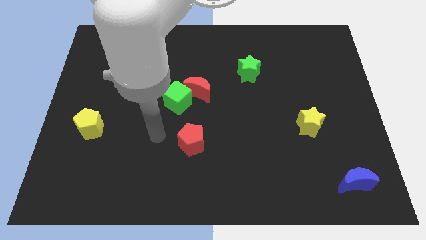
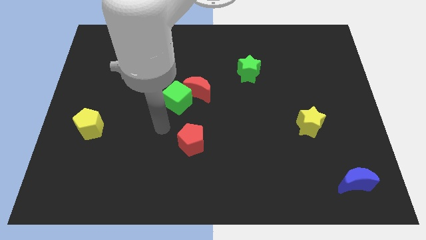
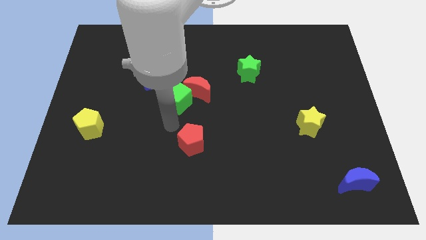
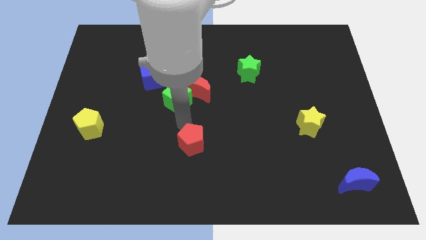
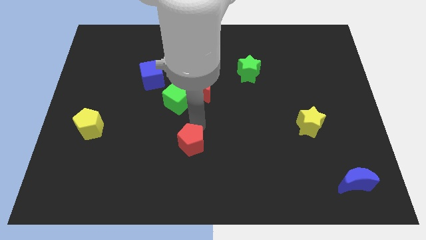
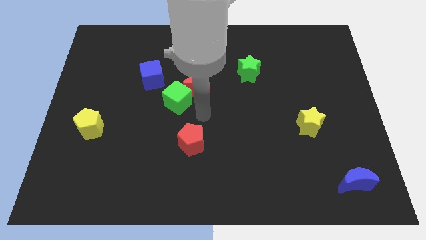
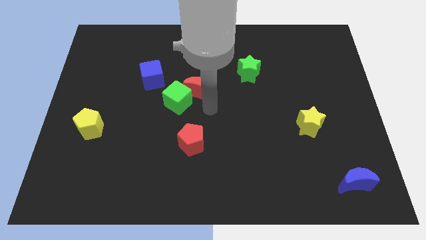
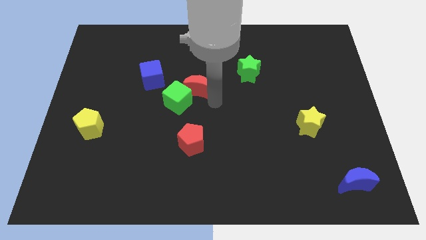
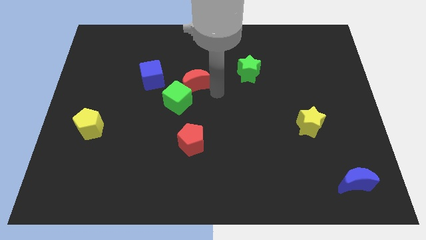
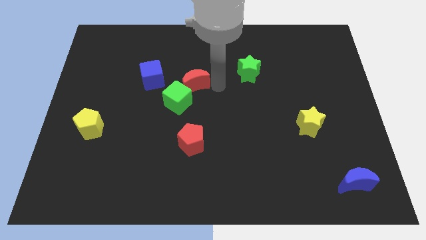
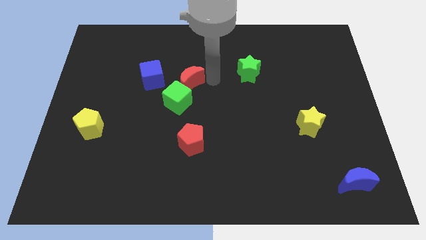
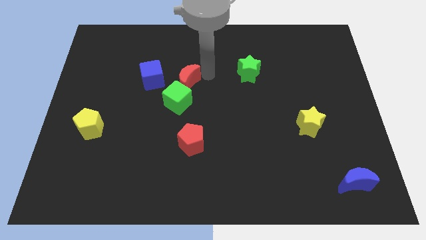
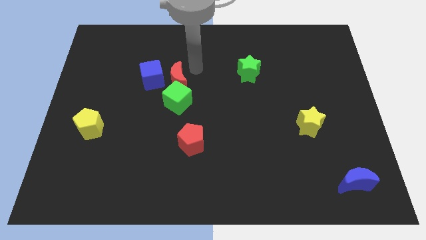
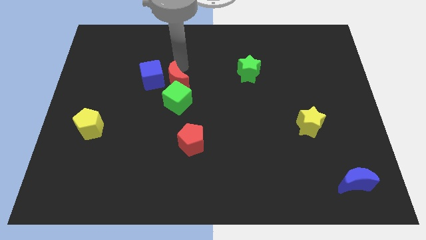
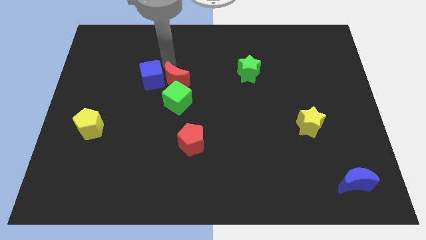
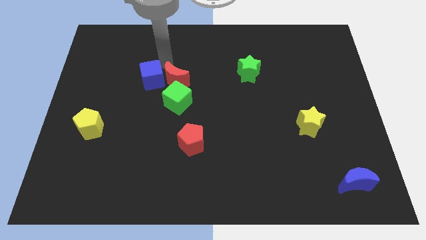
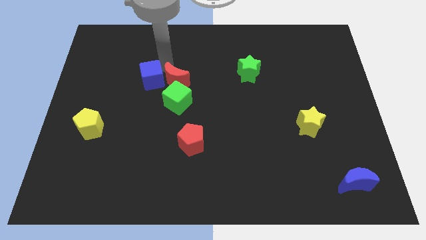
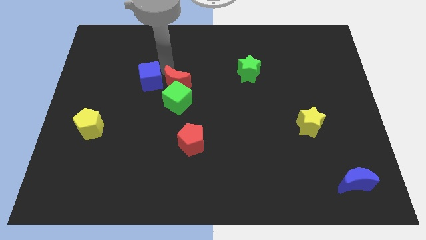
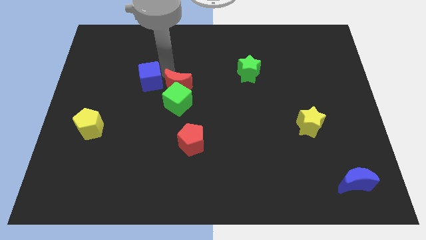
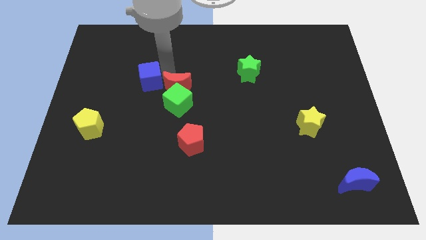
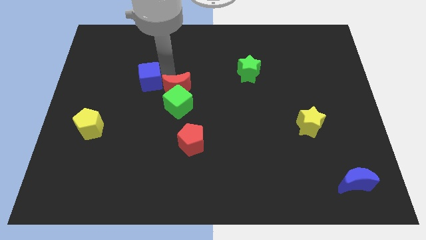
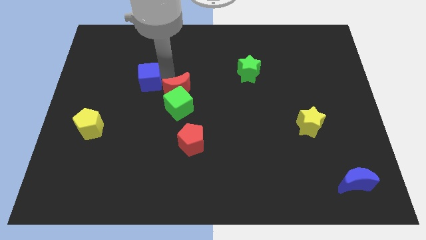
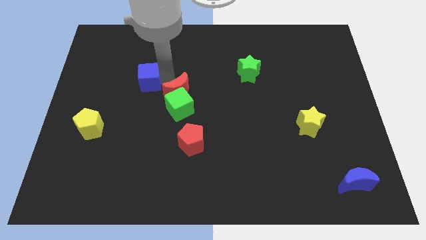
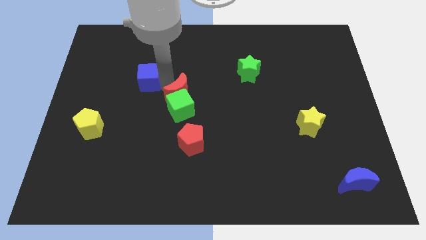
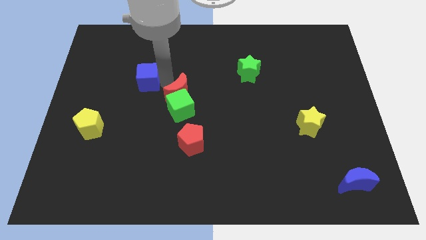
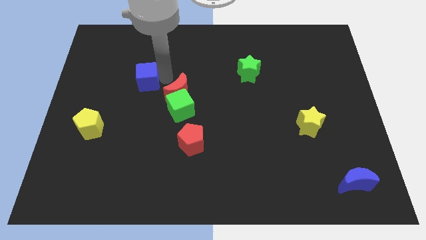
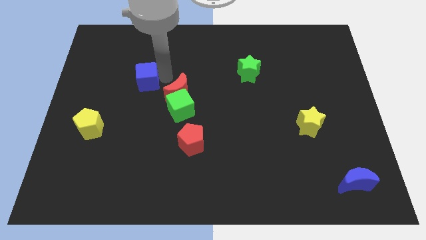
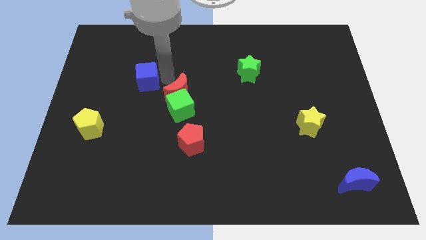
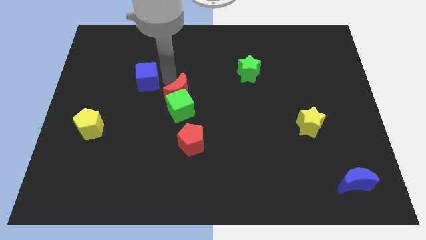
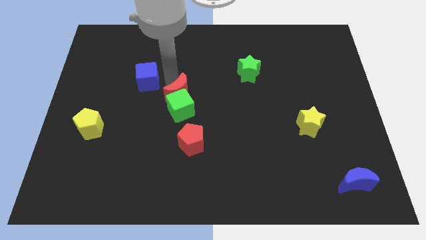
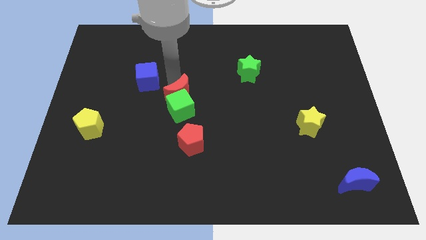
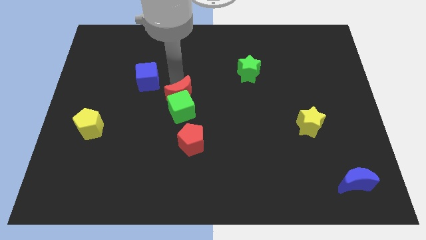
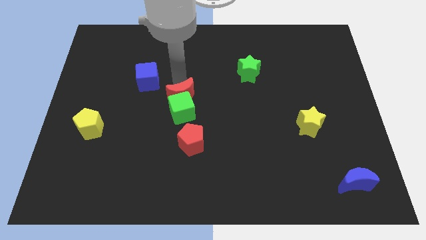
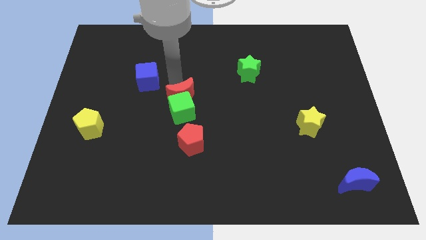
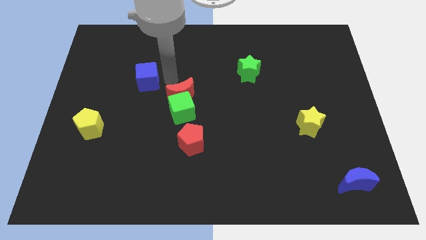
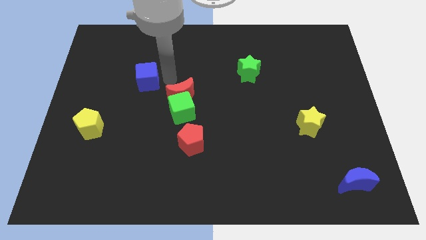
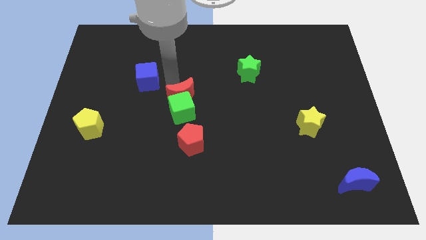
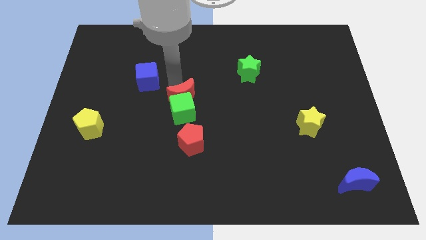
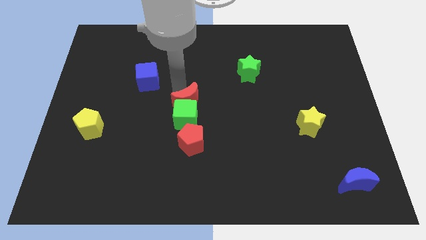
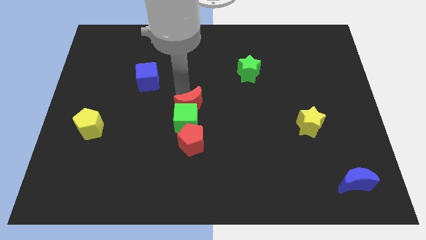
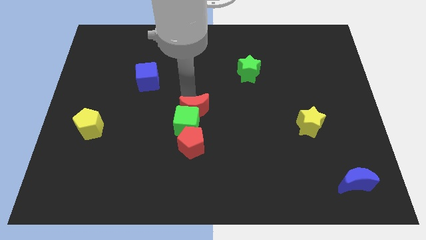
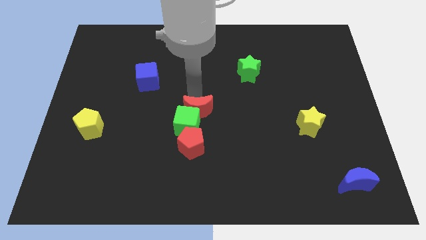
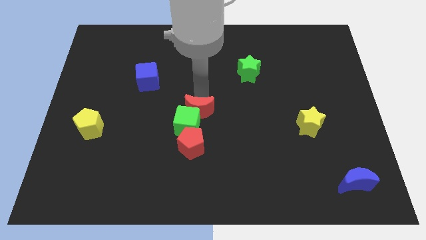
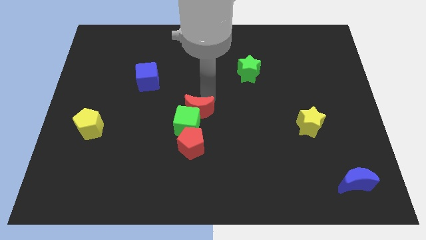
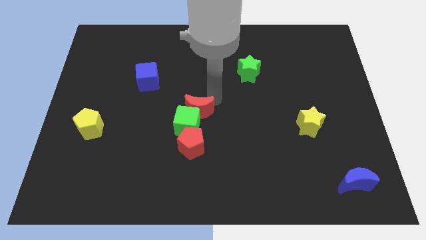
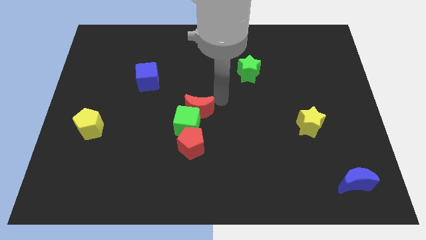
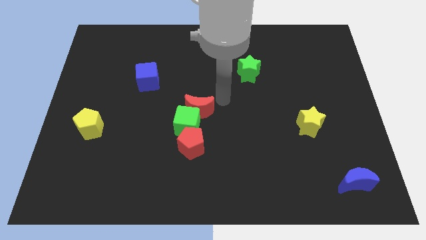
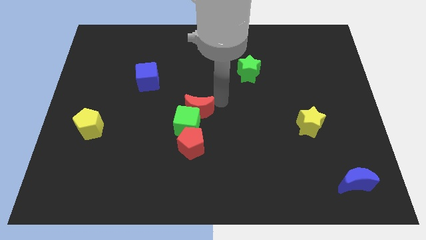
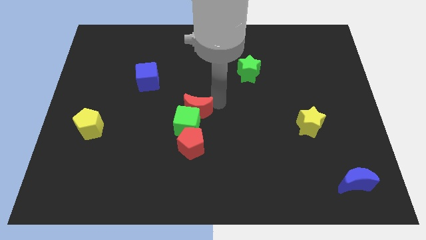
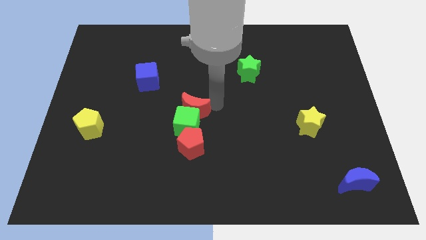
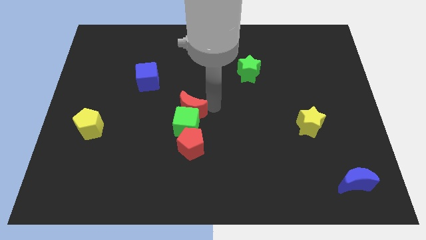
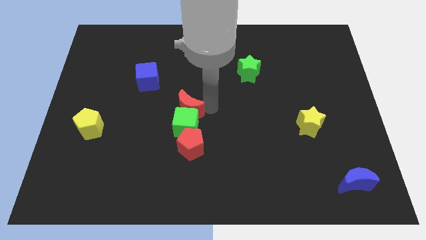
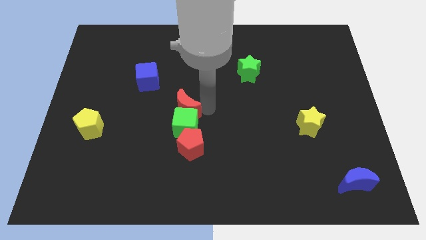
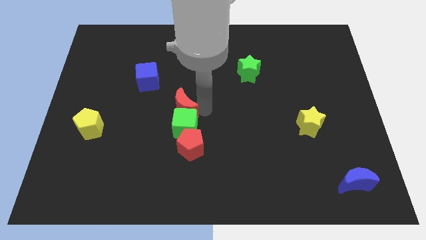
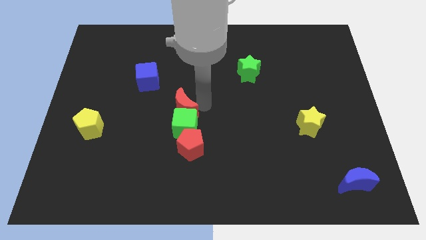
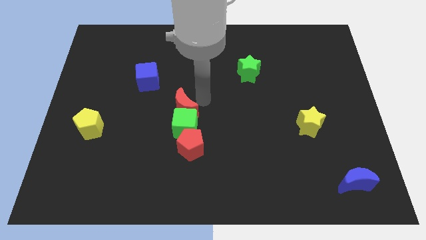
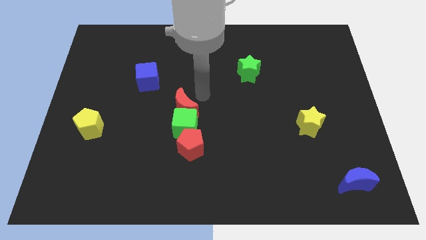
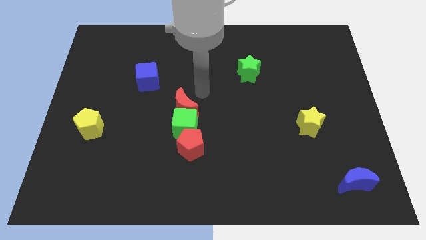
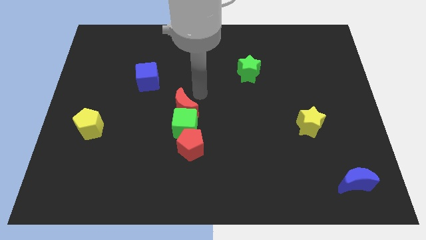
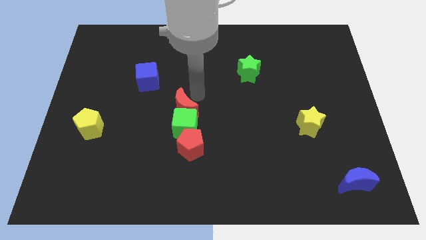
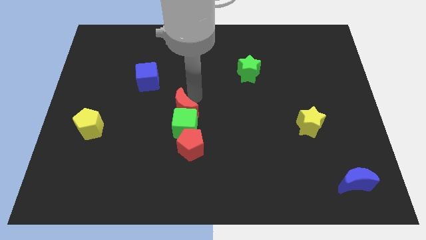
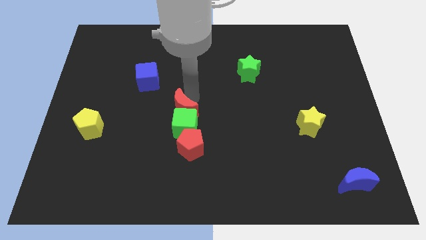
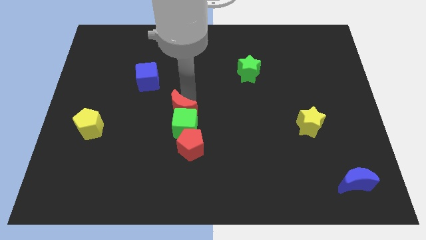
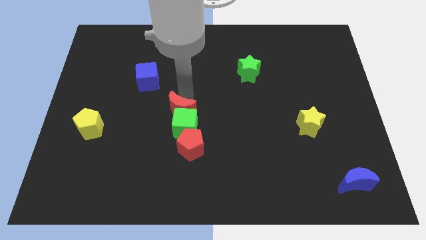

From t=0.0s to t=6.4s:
slide the red moon downwards and left a bit

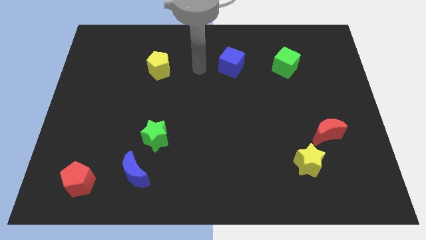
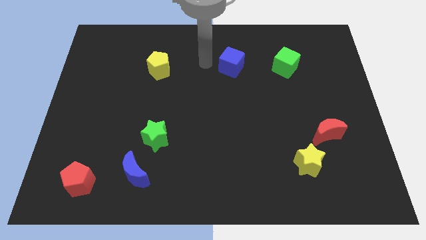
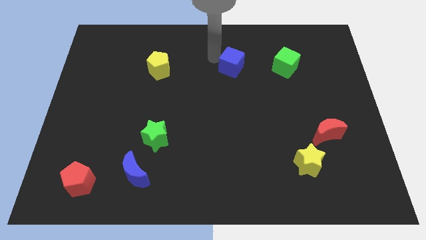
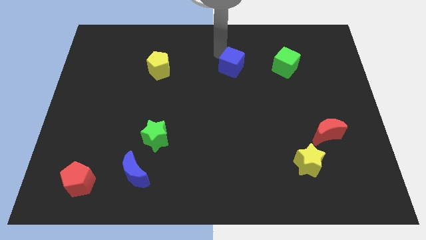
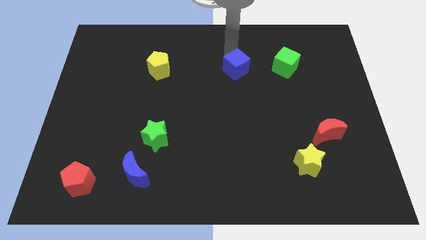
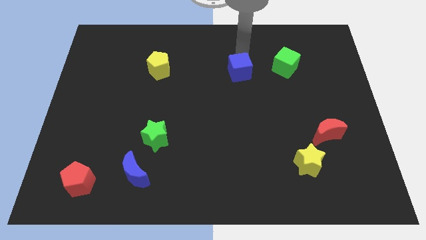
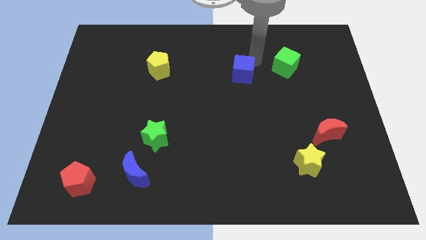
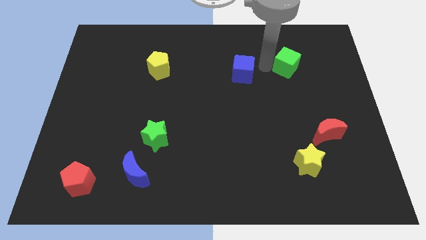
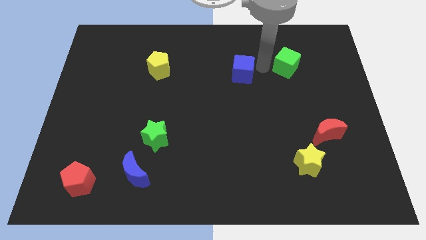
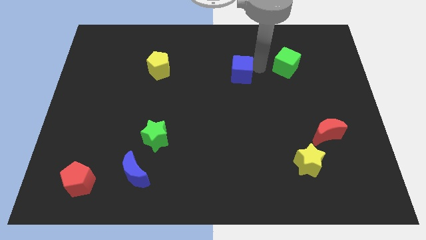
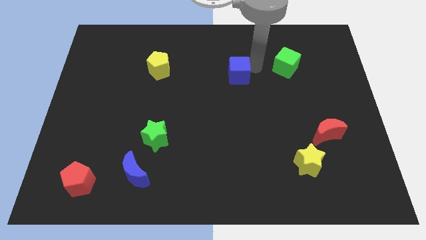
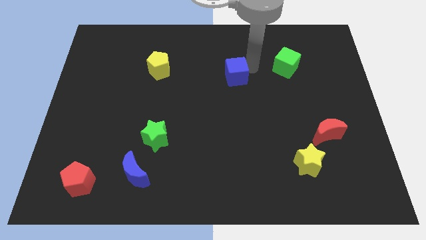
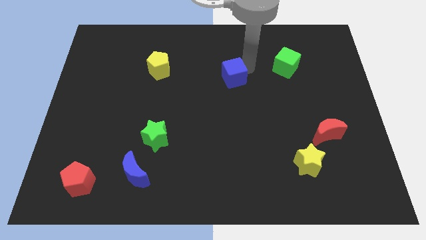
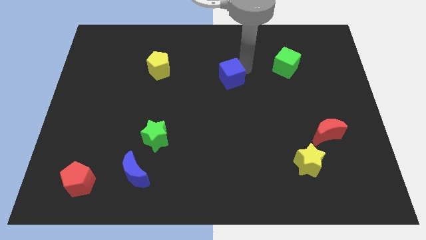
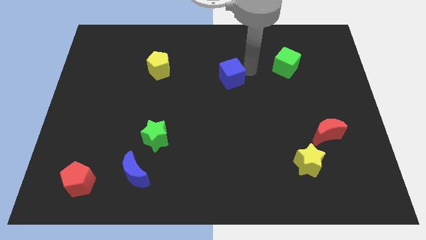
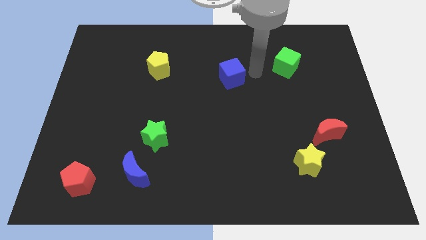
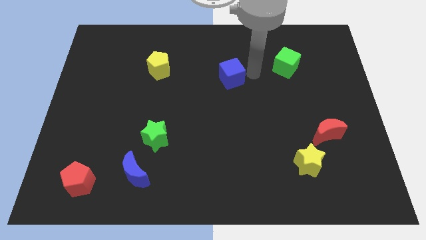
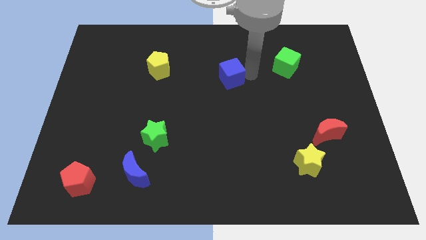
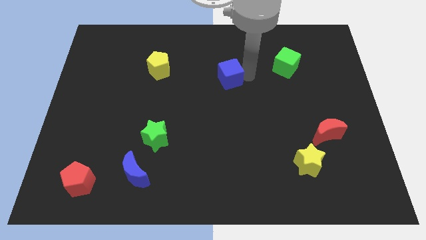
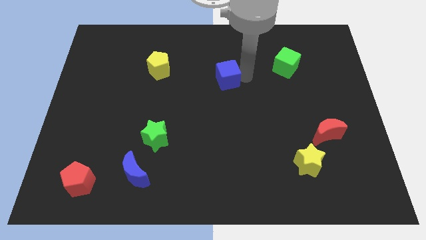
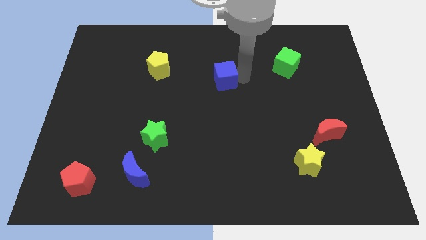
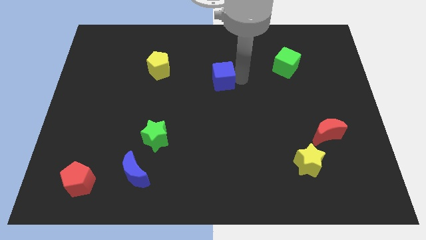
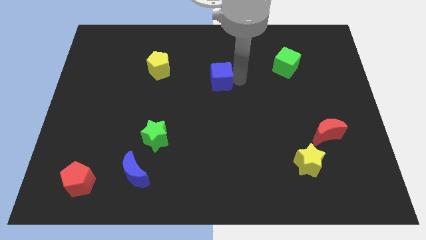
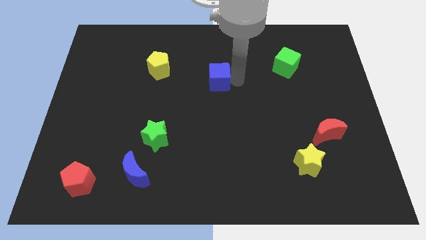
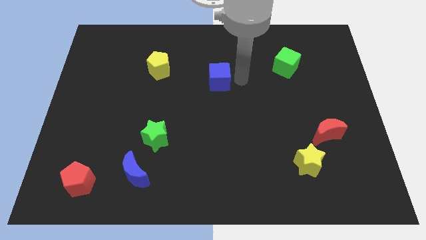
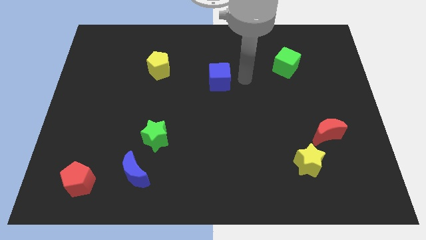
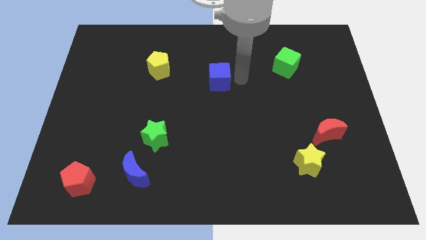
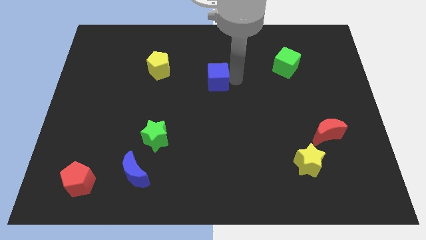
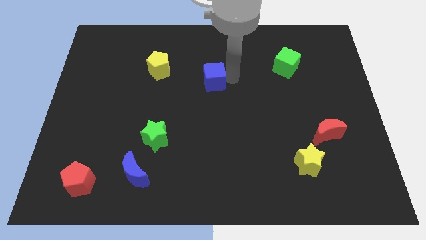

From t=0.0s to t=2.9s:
slide the blue cube slightly down and then to the left
